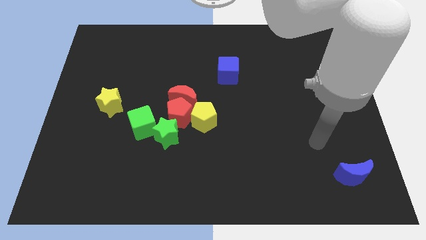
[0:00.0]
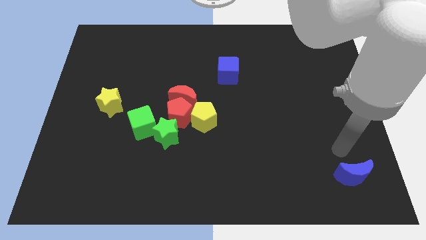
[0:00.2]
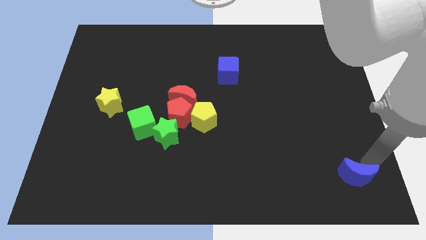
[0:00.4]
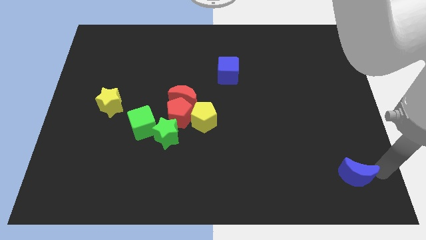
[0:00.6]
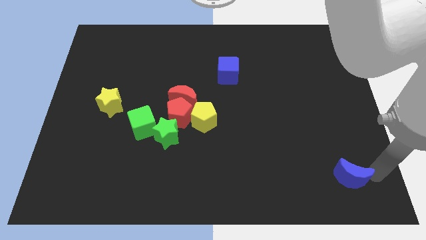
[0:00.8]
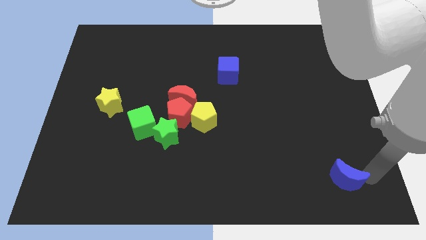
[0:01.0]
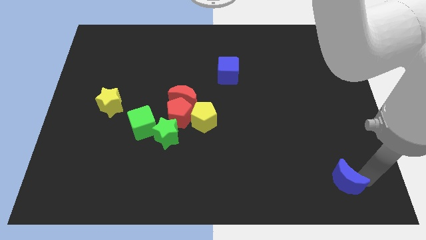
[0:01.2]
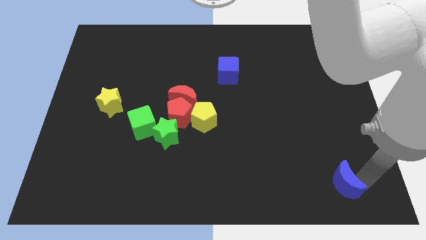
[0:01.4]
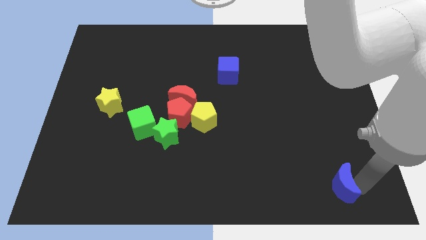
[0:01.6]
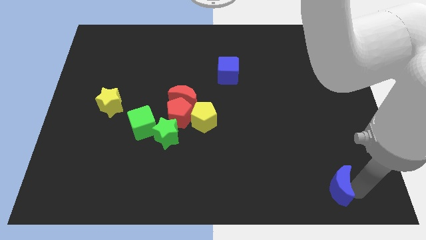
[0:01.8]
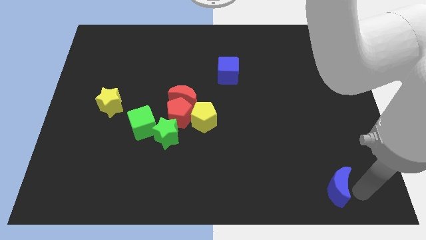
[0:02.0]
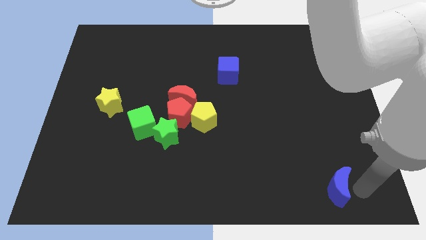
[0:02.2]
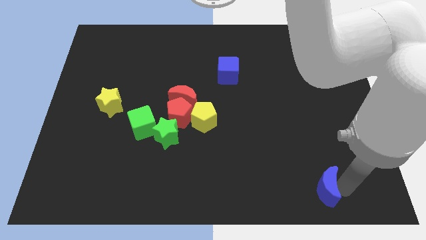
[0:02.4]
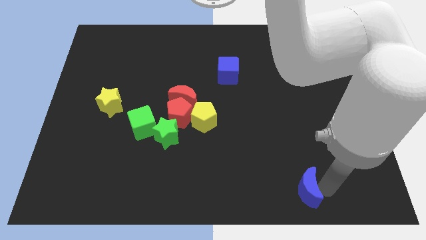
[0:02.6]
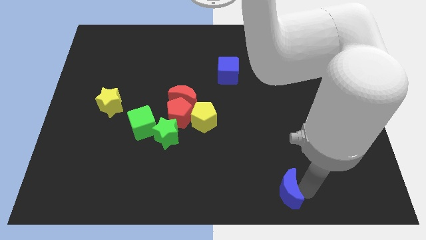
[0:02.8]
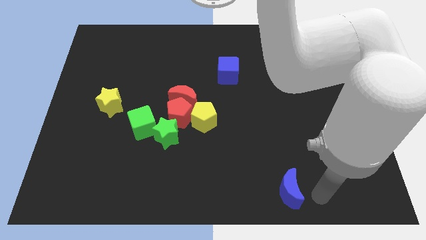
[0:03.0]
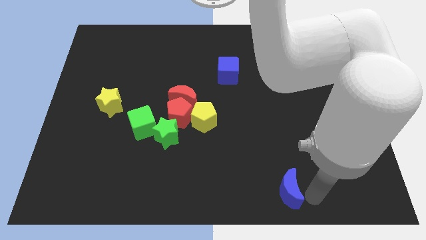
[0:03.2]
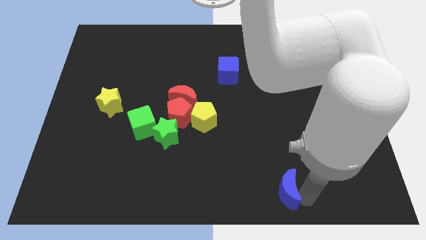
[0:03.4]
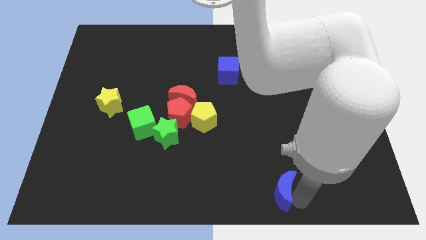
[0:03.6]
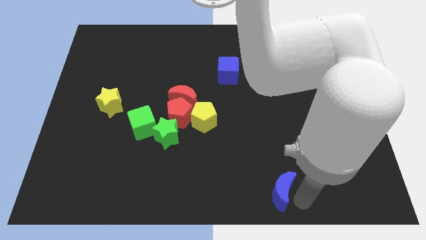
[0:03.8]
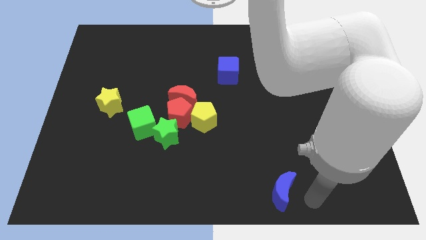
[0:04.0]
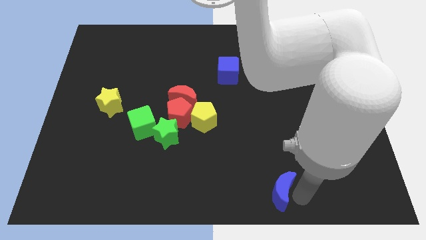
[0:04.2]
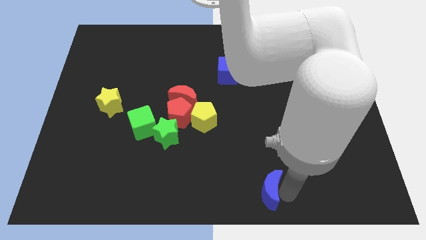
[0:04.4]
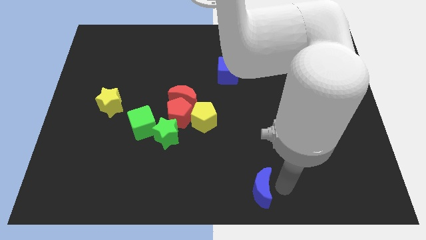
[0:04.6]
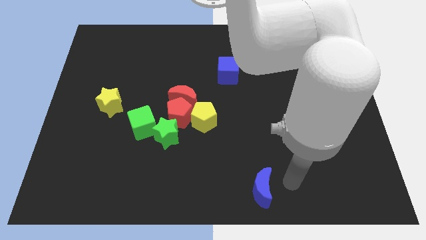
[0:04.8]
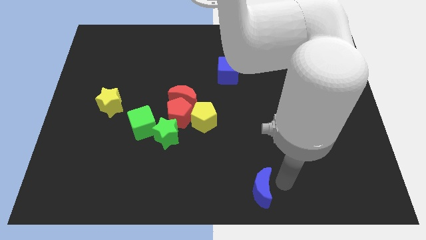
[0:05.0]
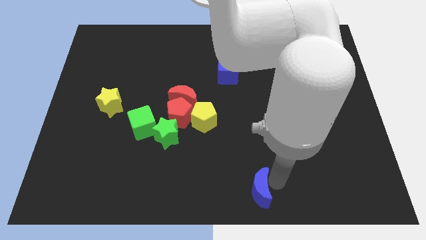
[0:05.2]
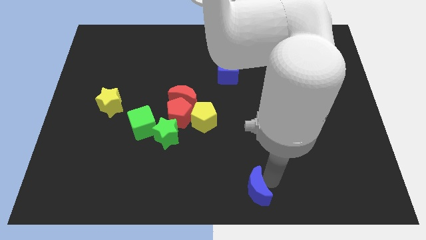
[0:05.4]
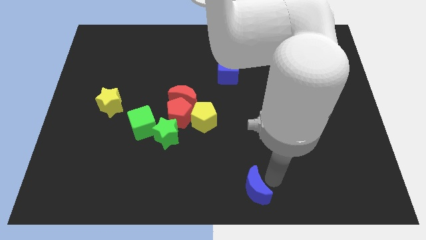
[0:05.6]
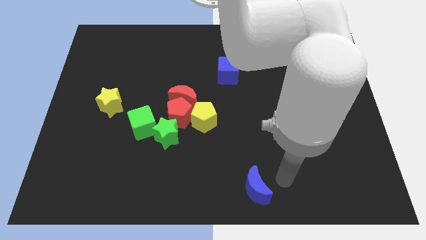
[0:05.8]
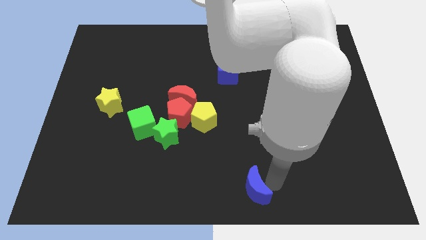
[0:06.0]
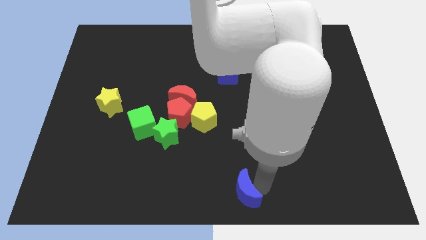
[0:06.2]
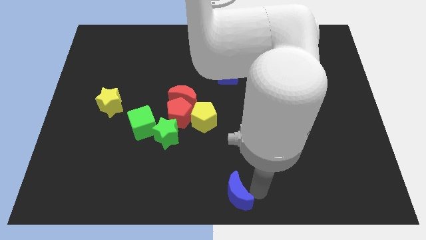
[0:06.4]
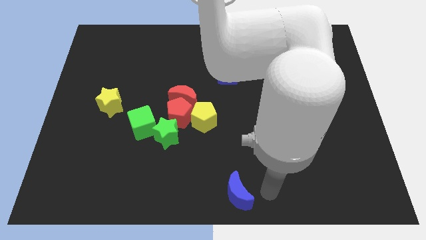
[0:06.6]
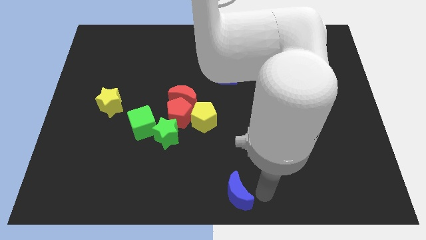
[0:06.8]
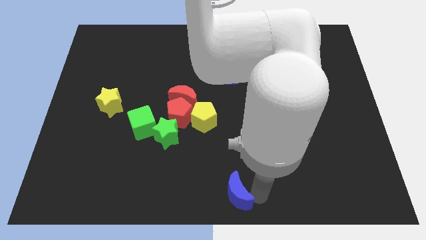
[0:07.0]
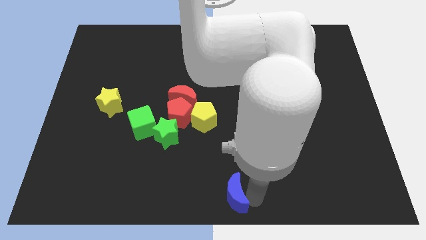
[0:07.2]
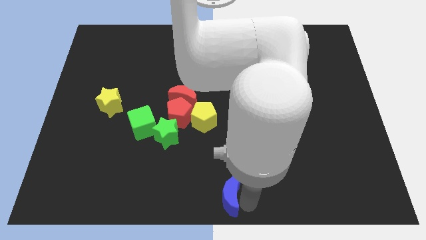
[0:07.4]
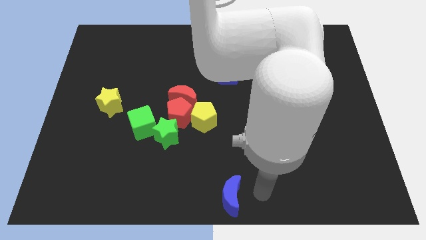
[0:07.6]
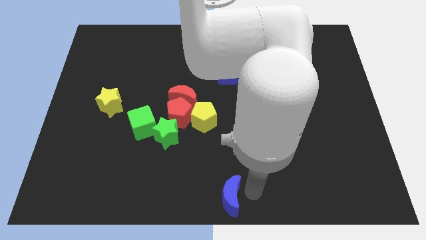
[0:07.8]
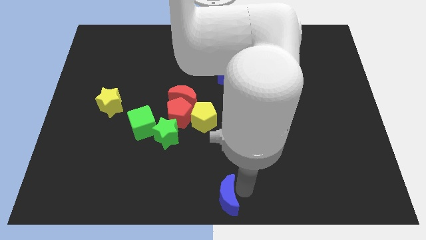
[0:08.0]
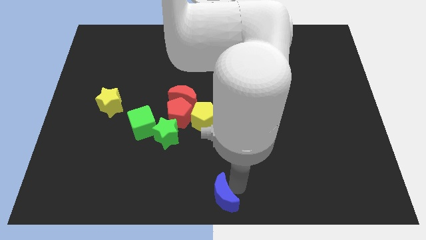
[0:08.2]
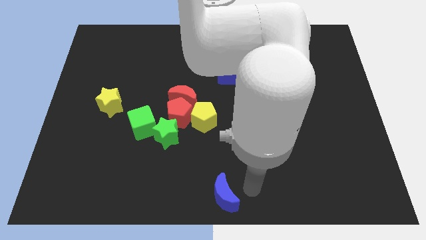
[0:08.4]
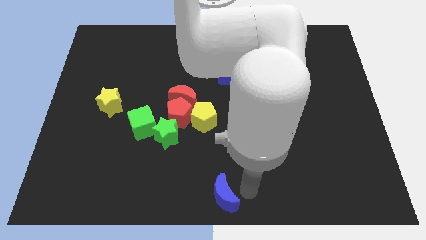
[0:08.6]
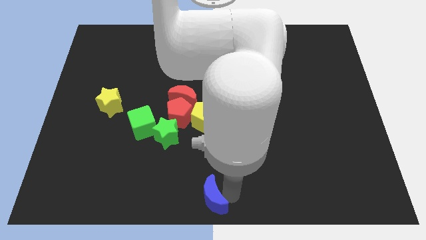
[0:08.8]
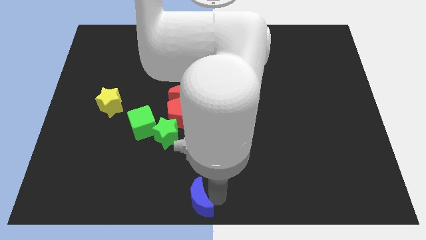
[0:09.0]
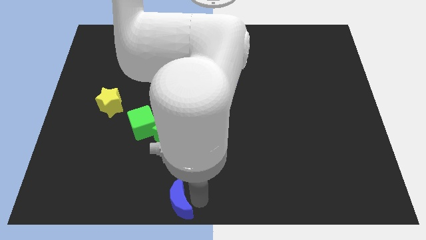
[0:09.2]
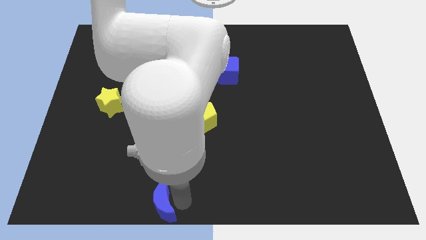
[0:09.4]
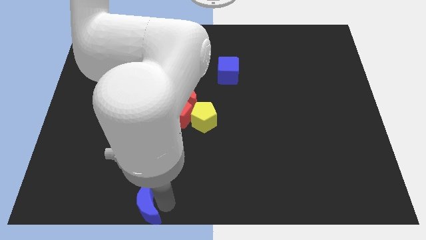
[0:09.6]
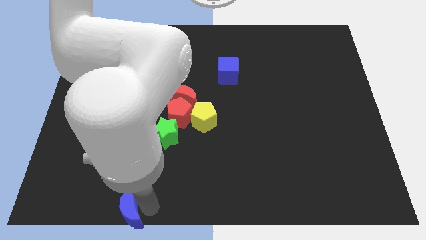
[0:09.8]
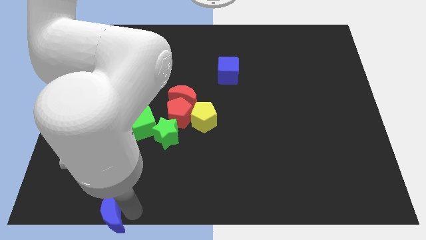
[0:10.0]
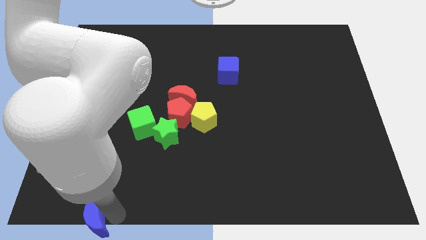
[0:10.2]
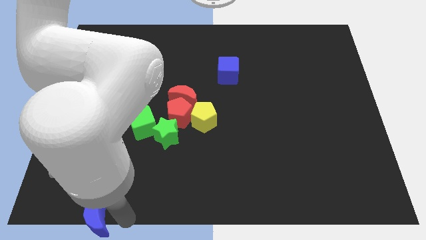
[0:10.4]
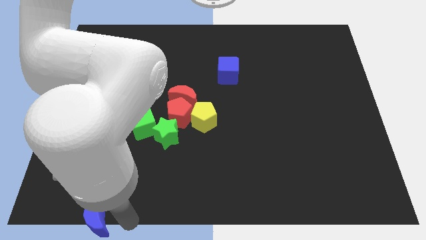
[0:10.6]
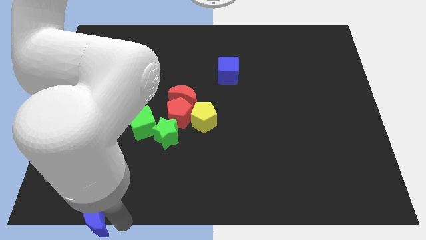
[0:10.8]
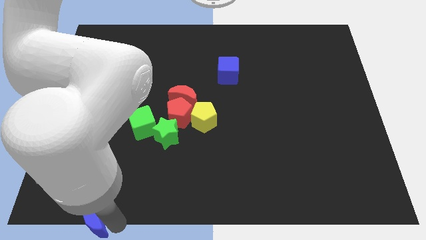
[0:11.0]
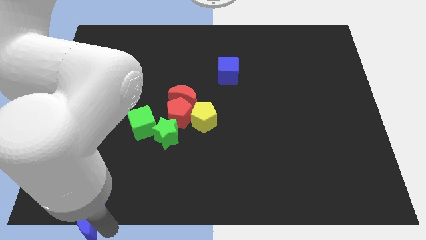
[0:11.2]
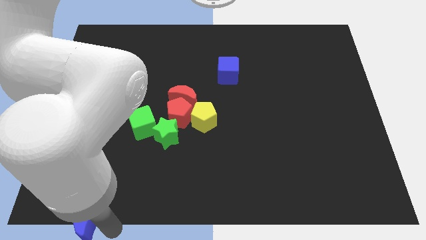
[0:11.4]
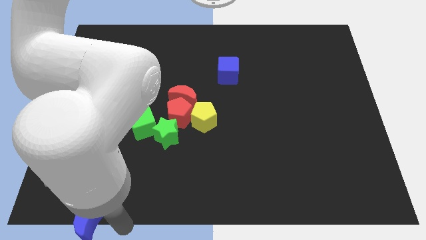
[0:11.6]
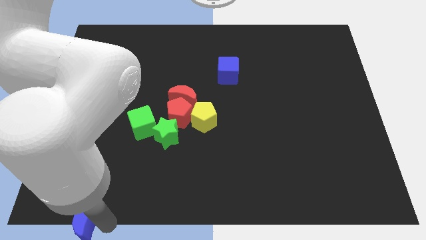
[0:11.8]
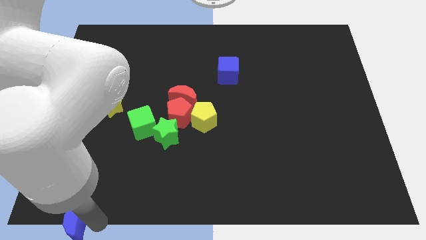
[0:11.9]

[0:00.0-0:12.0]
push the blue moon to the bottom left of the board

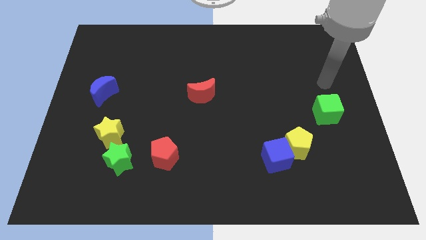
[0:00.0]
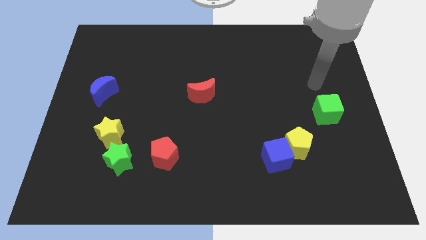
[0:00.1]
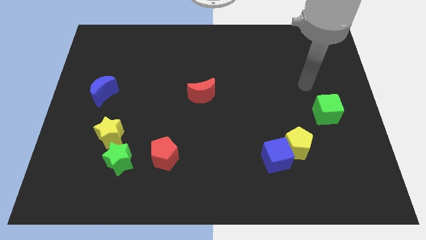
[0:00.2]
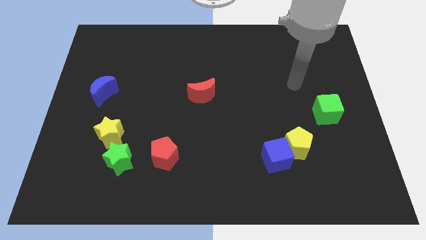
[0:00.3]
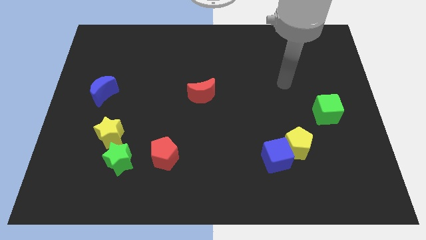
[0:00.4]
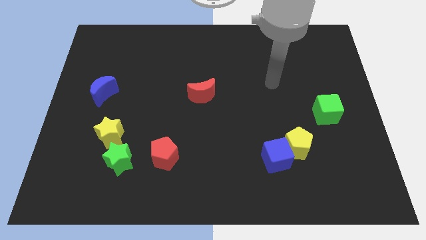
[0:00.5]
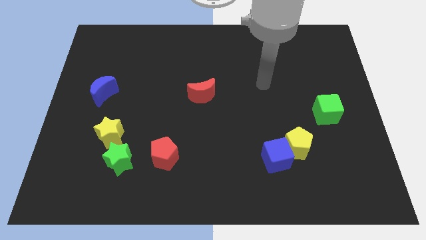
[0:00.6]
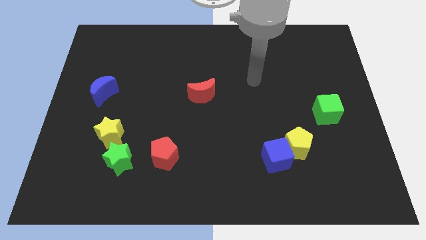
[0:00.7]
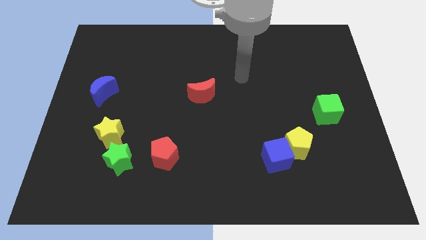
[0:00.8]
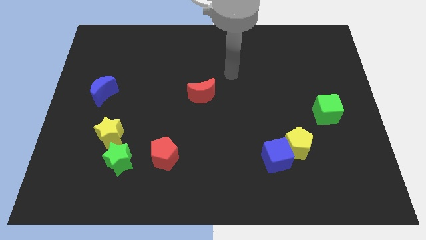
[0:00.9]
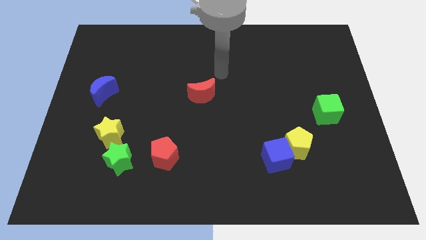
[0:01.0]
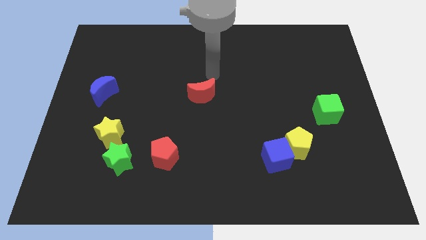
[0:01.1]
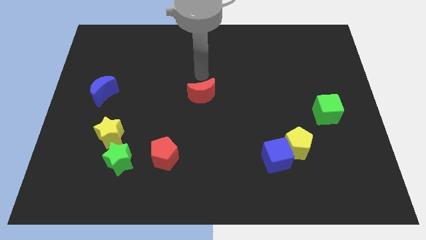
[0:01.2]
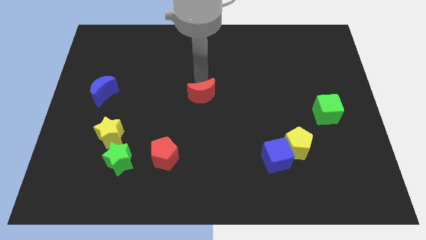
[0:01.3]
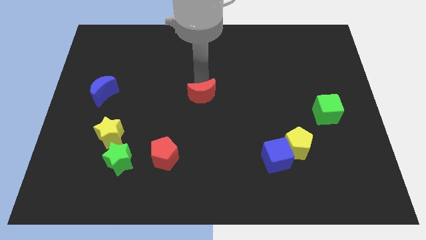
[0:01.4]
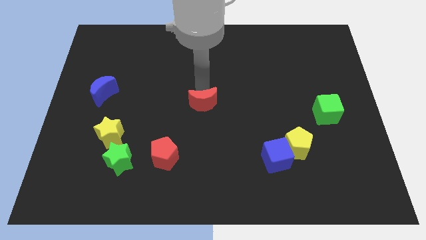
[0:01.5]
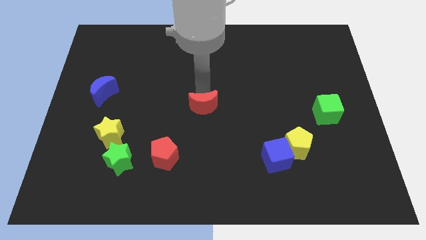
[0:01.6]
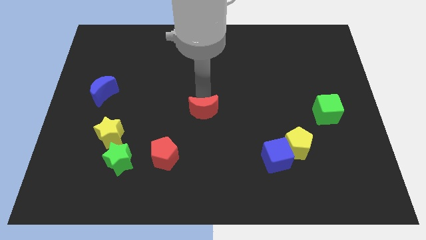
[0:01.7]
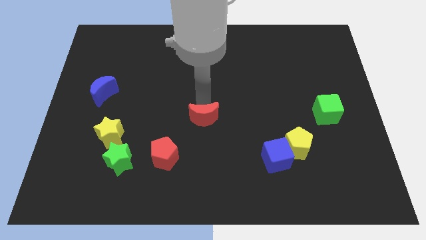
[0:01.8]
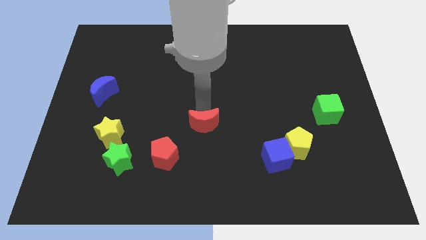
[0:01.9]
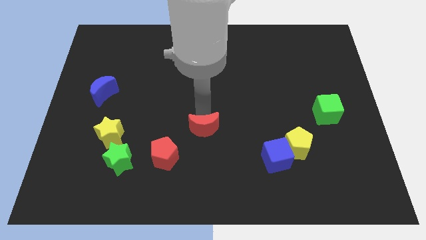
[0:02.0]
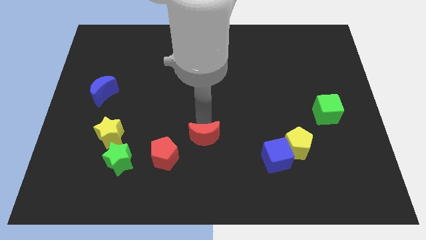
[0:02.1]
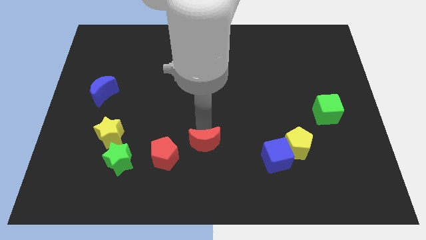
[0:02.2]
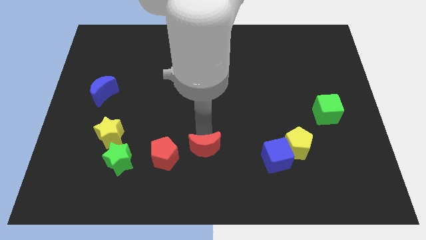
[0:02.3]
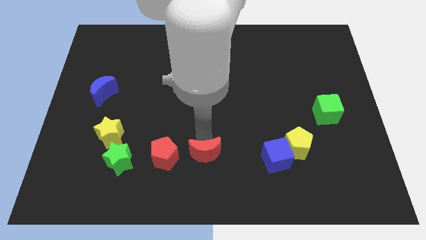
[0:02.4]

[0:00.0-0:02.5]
push the red moon to the bottom
